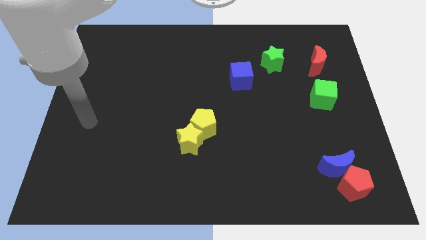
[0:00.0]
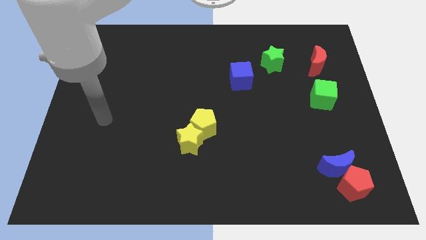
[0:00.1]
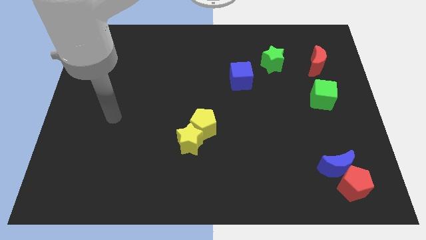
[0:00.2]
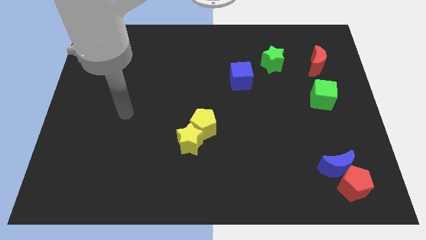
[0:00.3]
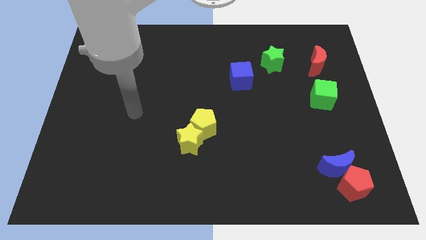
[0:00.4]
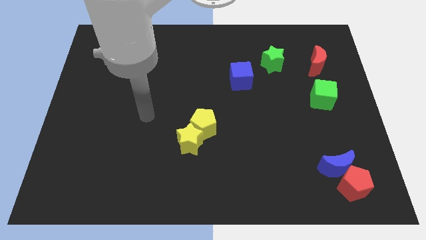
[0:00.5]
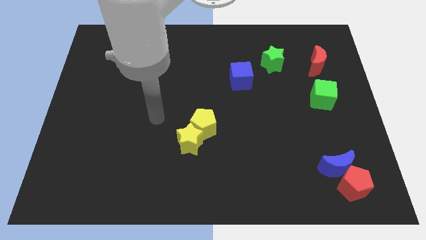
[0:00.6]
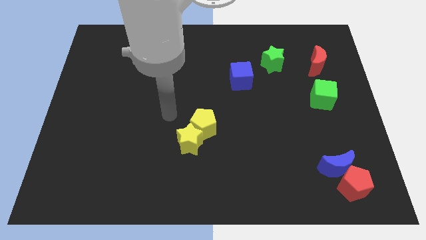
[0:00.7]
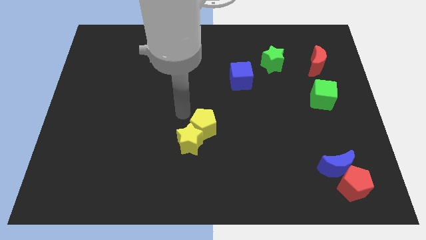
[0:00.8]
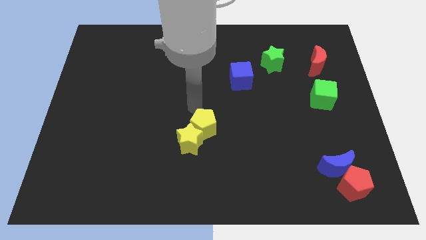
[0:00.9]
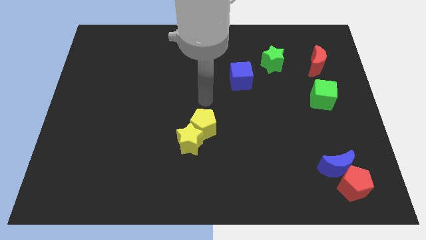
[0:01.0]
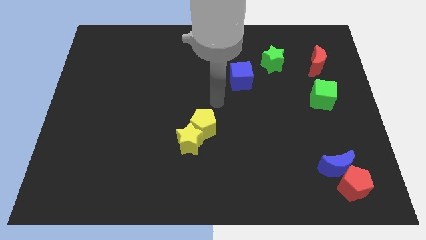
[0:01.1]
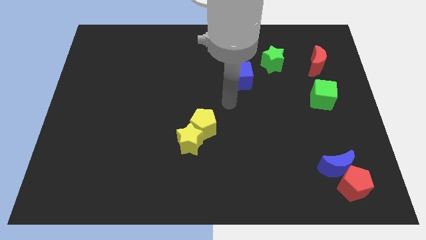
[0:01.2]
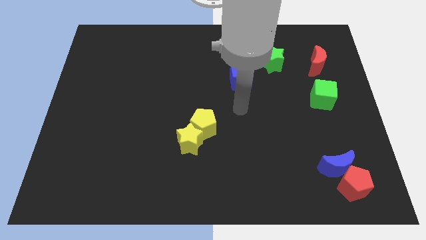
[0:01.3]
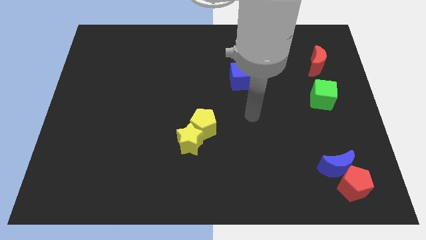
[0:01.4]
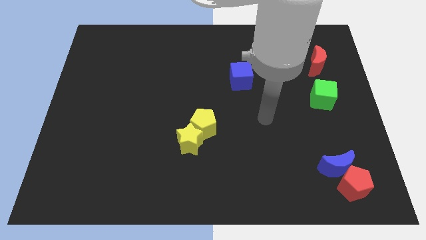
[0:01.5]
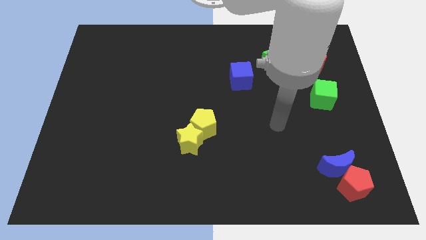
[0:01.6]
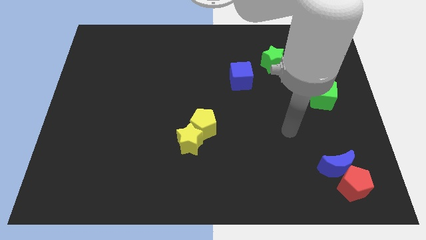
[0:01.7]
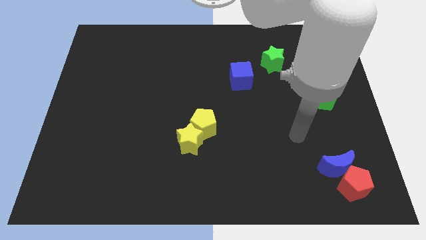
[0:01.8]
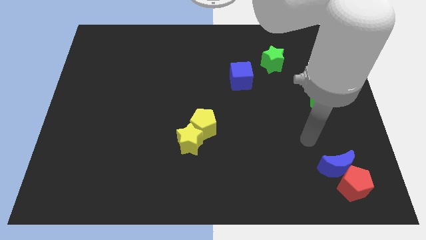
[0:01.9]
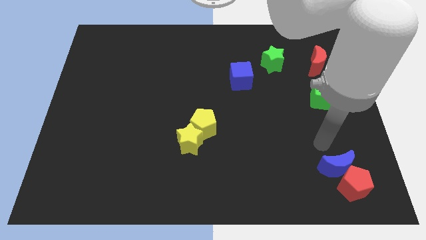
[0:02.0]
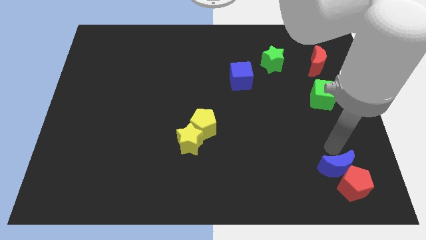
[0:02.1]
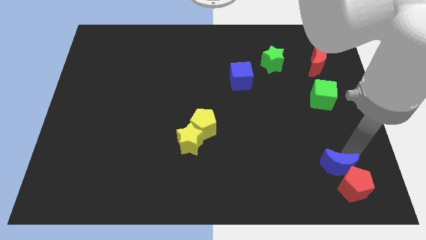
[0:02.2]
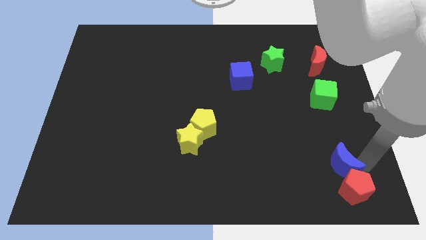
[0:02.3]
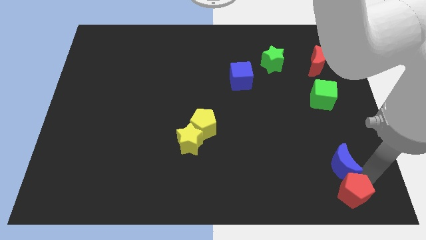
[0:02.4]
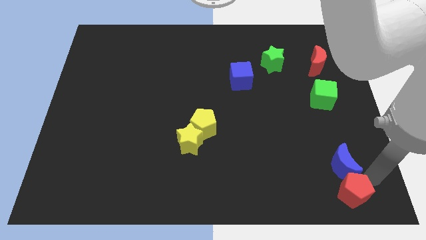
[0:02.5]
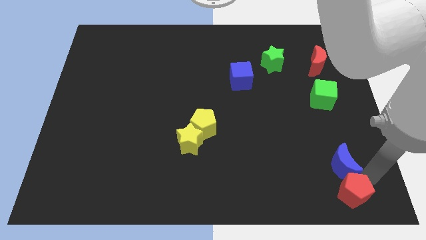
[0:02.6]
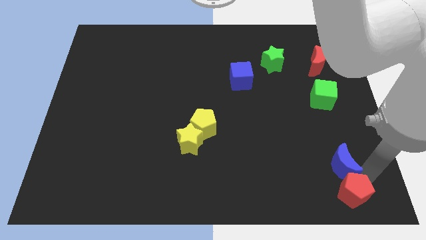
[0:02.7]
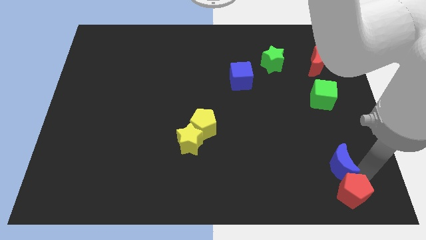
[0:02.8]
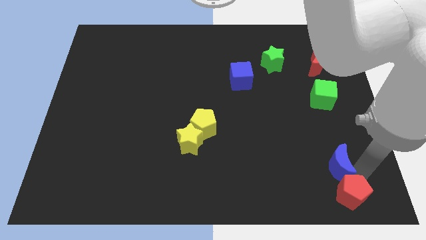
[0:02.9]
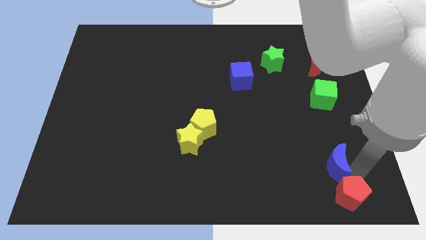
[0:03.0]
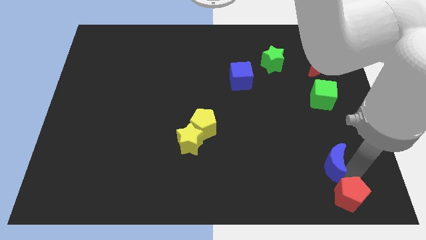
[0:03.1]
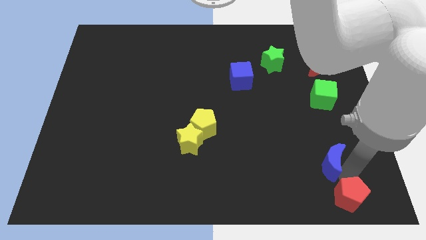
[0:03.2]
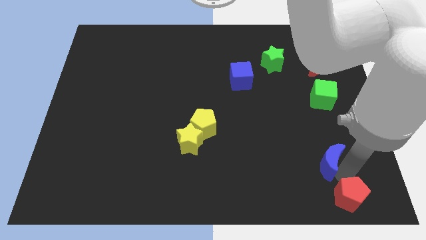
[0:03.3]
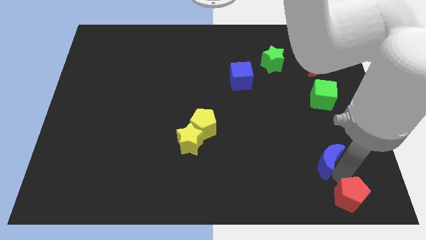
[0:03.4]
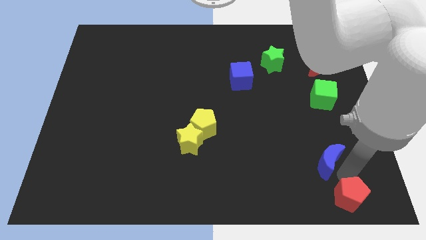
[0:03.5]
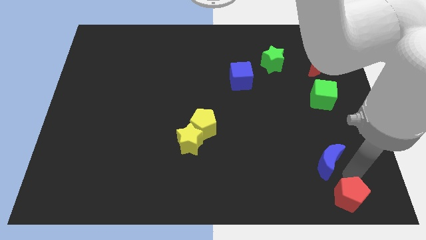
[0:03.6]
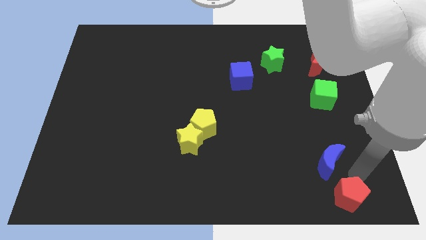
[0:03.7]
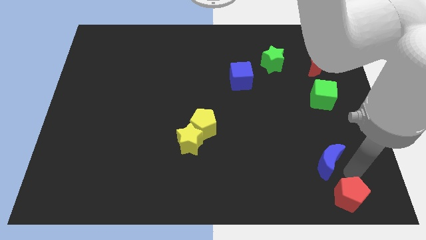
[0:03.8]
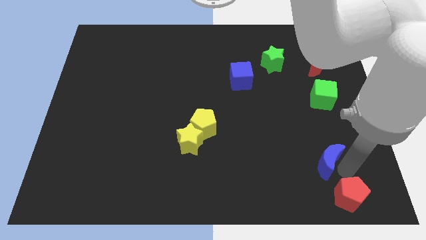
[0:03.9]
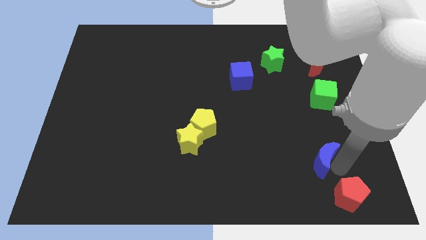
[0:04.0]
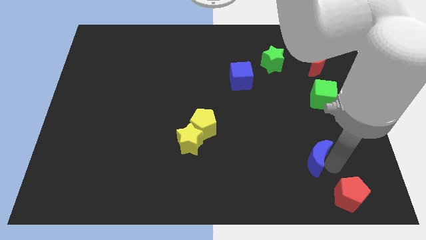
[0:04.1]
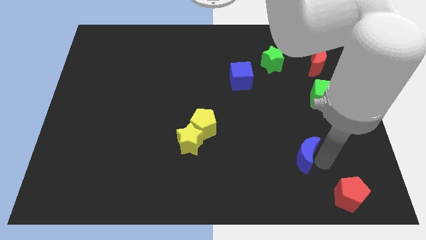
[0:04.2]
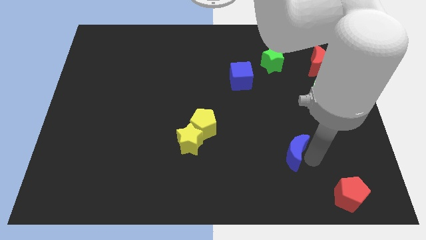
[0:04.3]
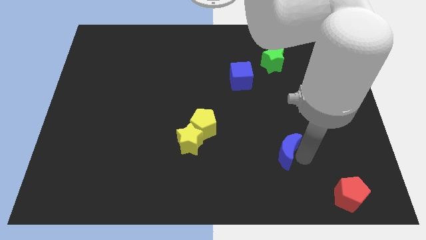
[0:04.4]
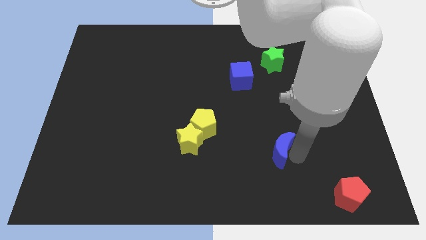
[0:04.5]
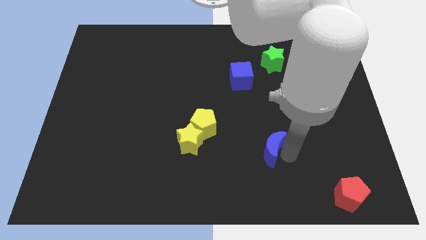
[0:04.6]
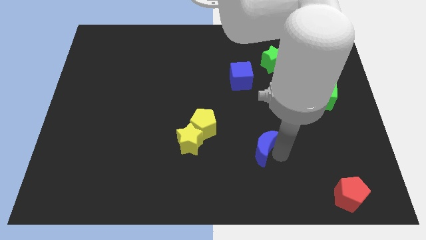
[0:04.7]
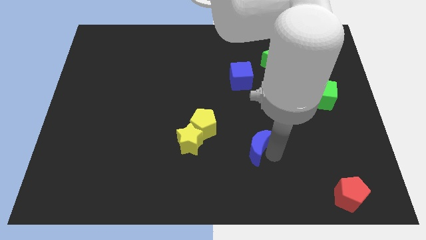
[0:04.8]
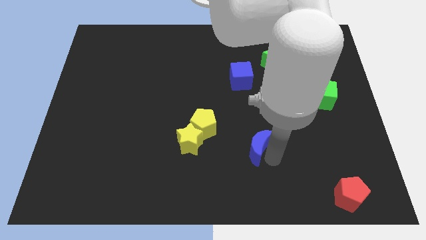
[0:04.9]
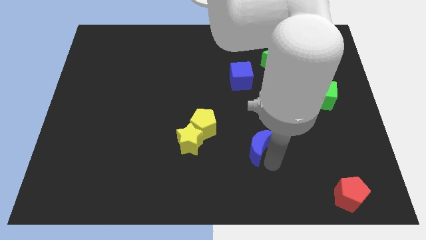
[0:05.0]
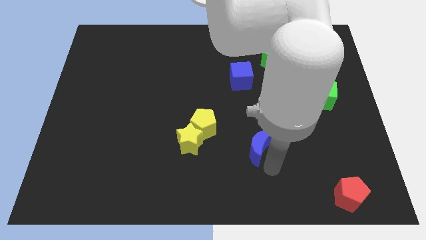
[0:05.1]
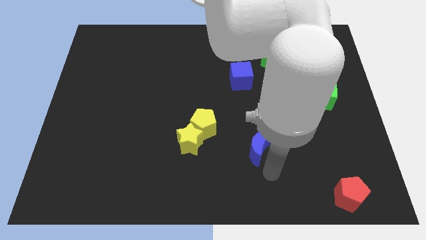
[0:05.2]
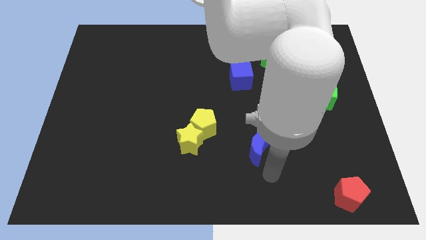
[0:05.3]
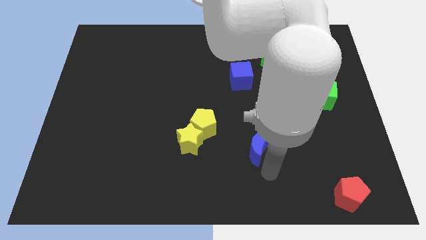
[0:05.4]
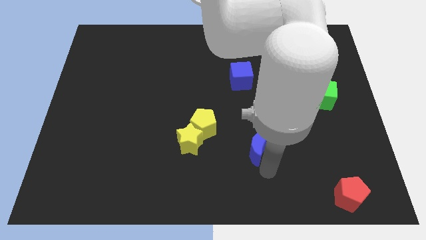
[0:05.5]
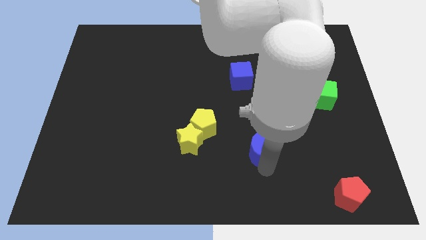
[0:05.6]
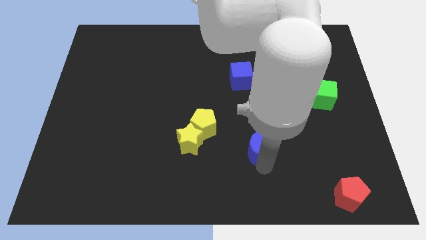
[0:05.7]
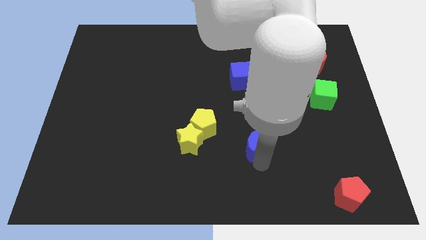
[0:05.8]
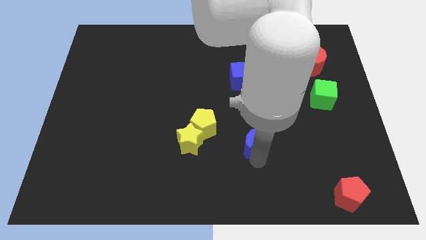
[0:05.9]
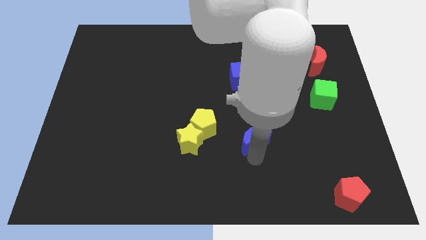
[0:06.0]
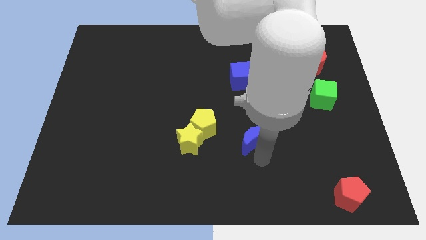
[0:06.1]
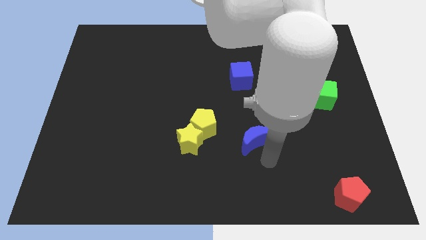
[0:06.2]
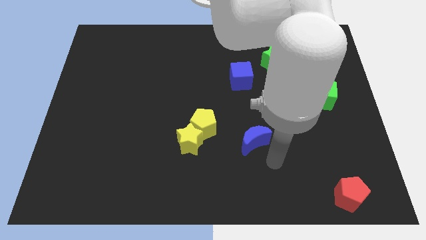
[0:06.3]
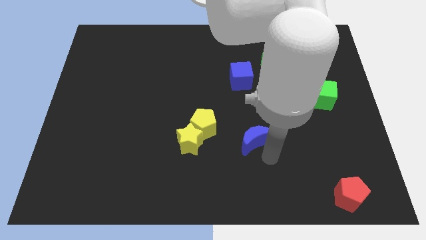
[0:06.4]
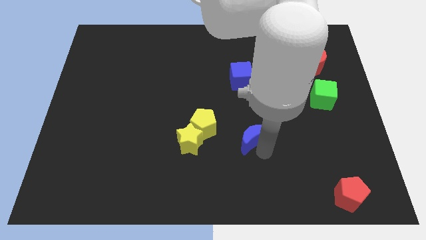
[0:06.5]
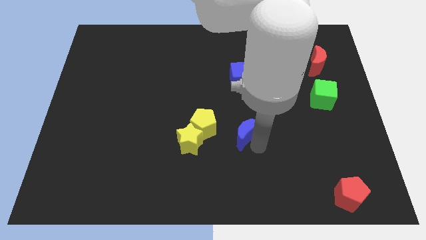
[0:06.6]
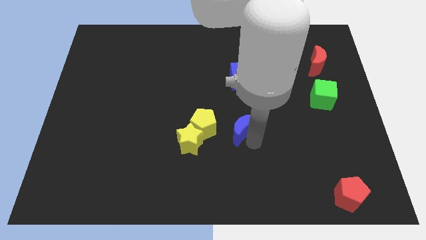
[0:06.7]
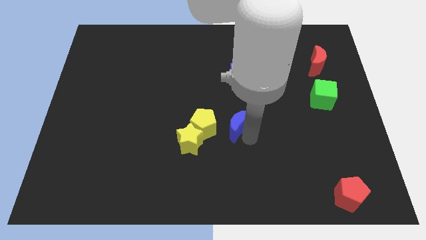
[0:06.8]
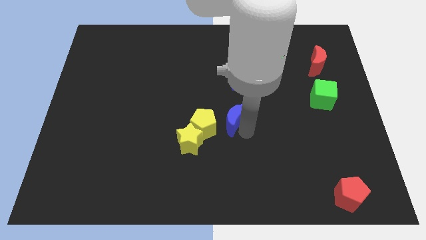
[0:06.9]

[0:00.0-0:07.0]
move the blue moon diagonally up and to the right of the yellow star

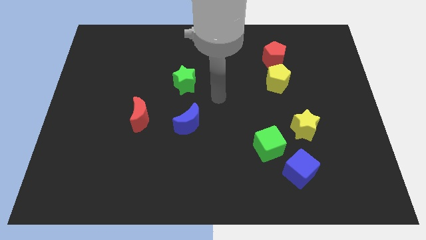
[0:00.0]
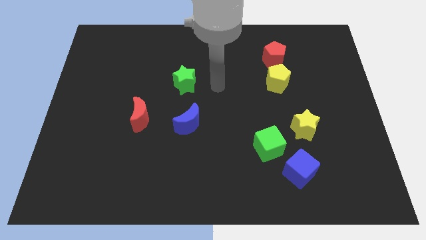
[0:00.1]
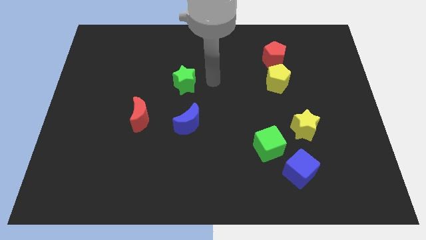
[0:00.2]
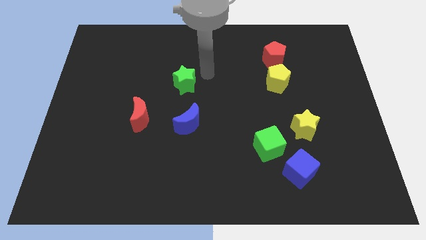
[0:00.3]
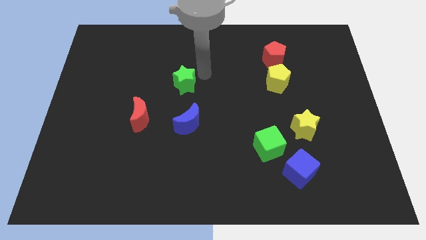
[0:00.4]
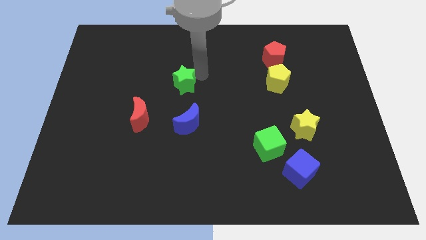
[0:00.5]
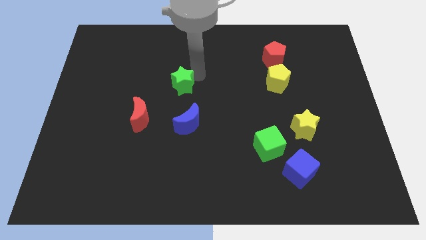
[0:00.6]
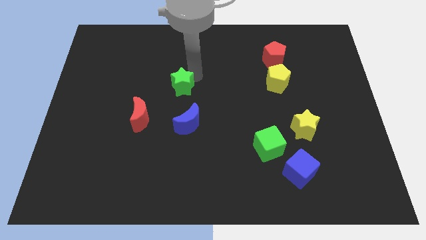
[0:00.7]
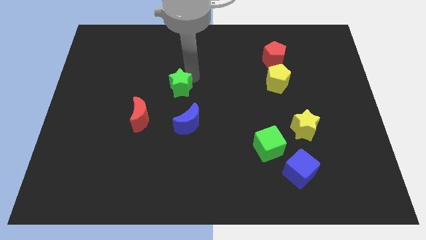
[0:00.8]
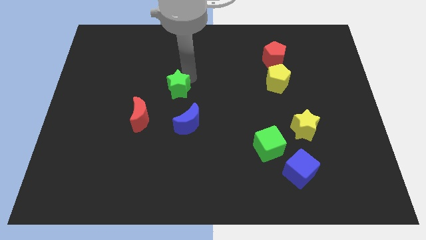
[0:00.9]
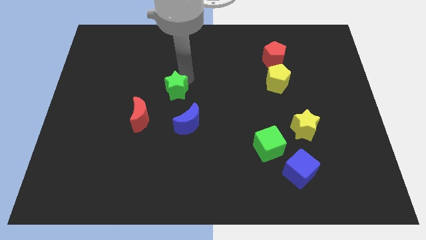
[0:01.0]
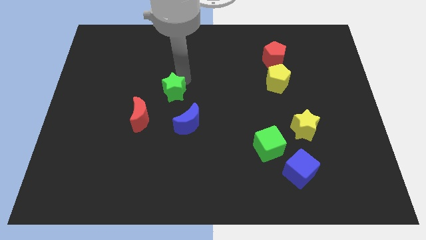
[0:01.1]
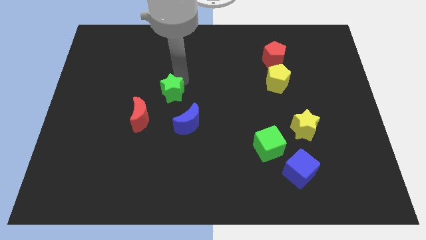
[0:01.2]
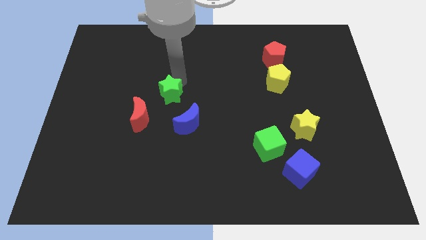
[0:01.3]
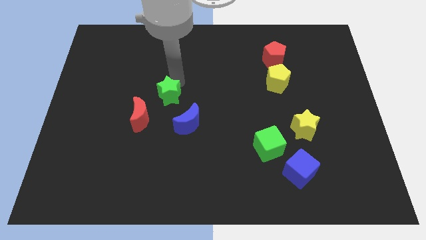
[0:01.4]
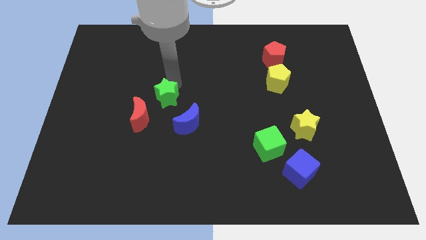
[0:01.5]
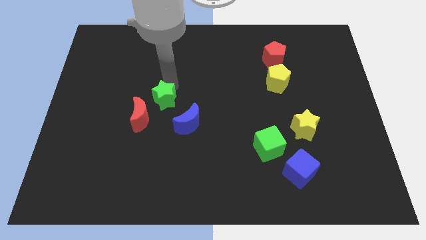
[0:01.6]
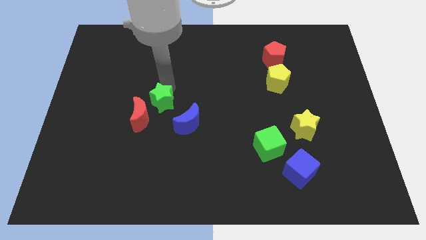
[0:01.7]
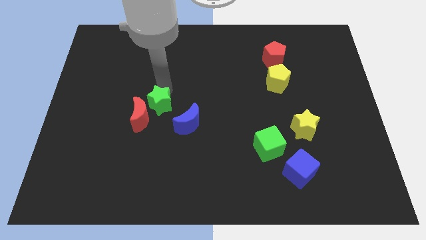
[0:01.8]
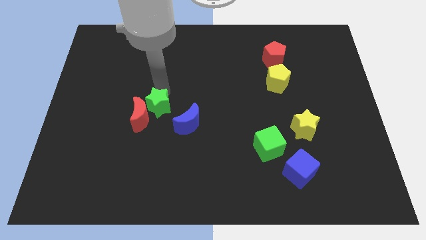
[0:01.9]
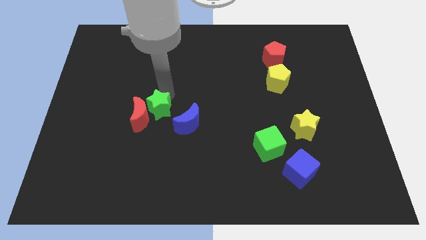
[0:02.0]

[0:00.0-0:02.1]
push the green star just left of the blue moon
